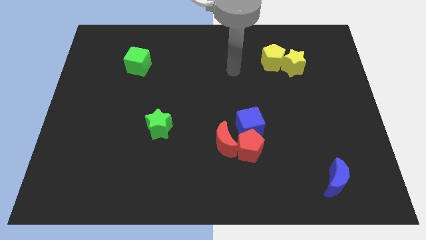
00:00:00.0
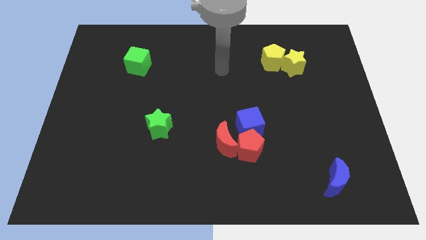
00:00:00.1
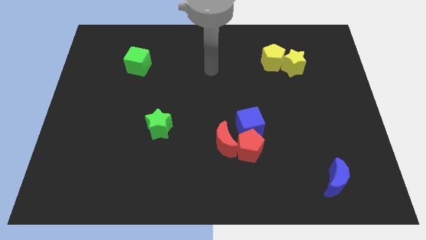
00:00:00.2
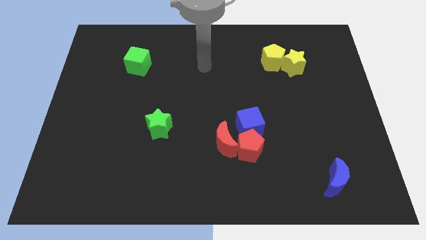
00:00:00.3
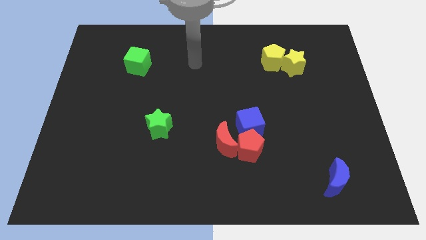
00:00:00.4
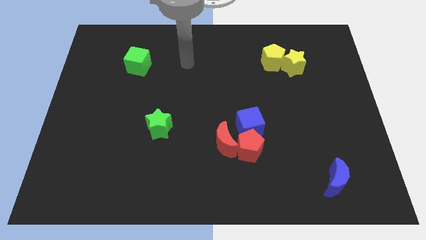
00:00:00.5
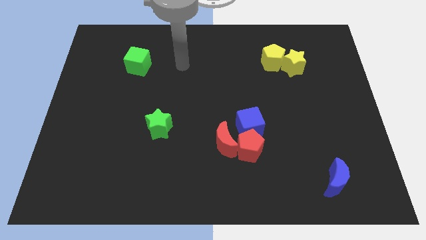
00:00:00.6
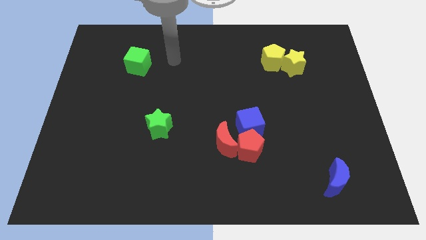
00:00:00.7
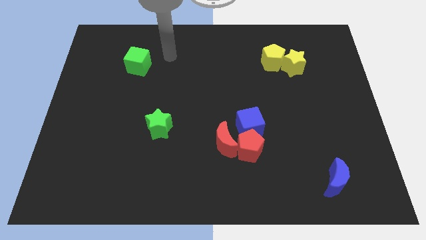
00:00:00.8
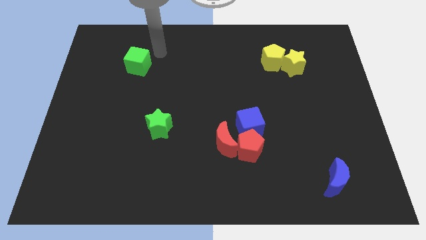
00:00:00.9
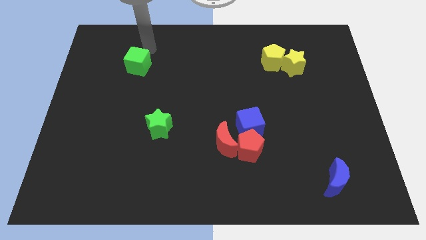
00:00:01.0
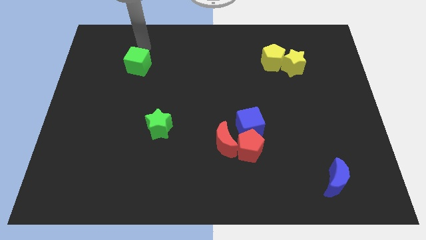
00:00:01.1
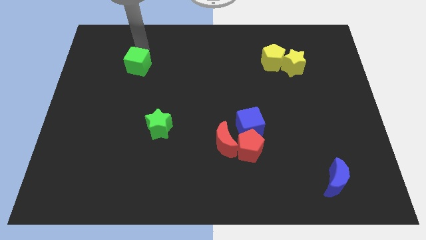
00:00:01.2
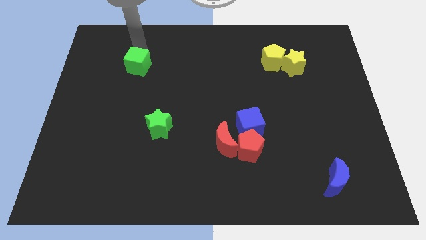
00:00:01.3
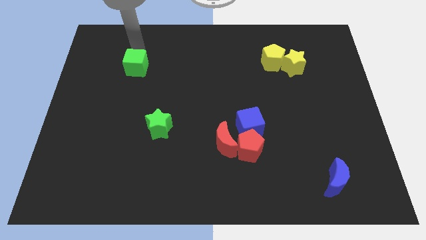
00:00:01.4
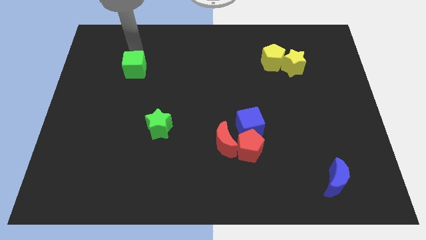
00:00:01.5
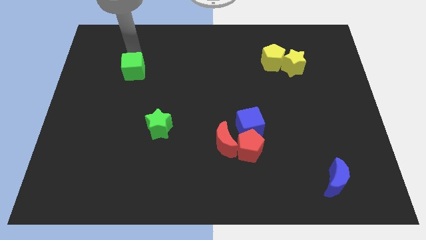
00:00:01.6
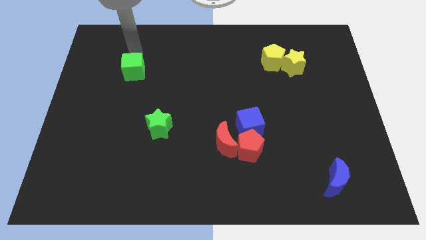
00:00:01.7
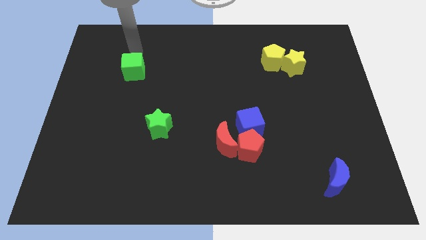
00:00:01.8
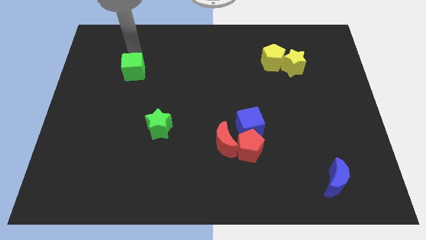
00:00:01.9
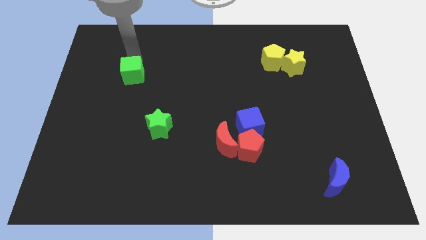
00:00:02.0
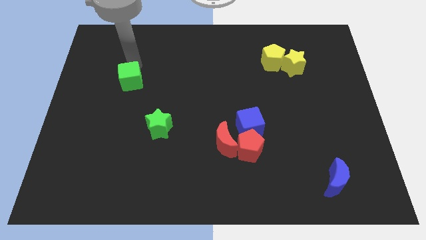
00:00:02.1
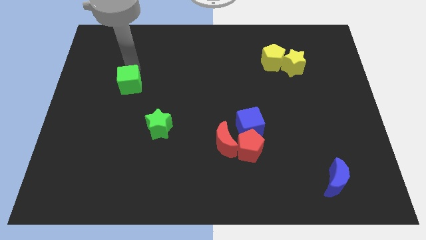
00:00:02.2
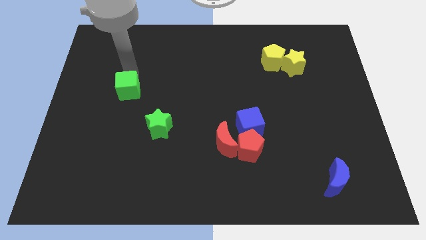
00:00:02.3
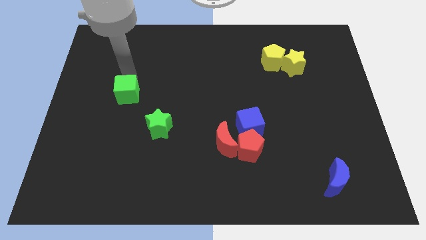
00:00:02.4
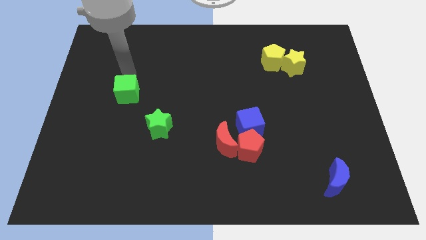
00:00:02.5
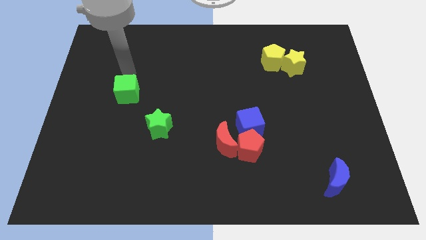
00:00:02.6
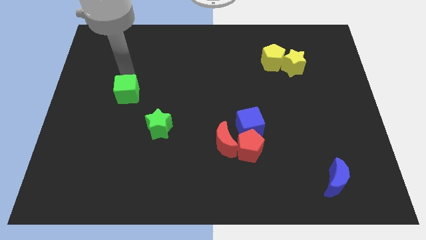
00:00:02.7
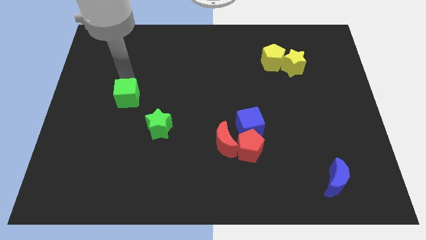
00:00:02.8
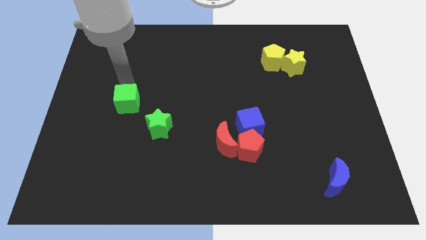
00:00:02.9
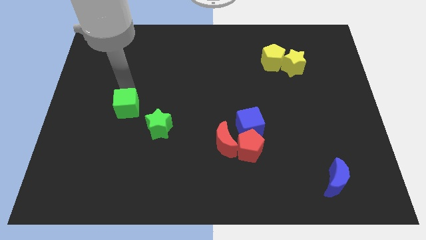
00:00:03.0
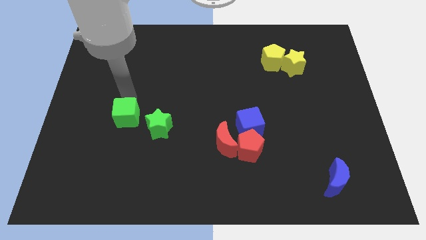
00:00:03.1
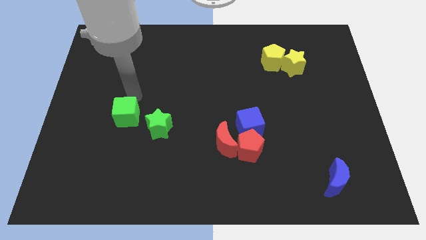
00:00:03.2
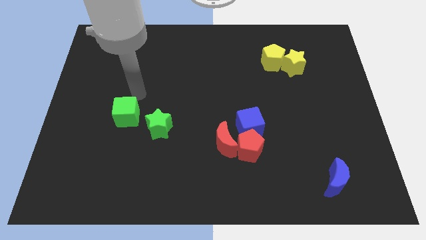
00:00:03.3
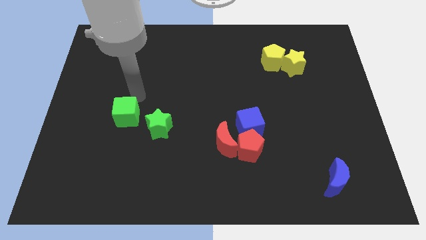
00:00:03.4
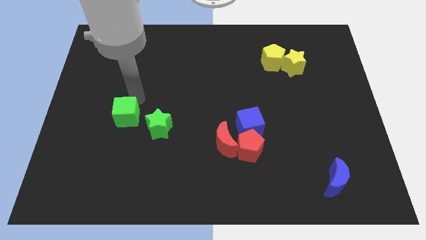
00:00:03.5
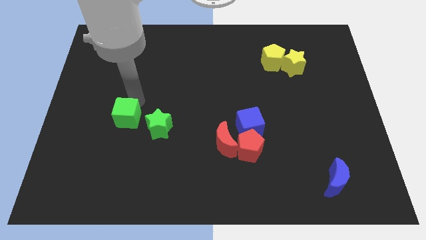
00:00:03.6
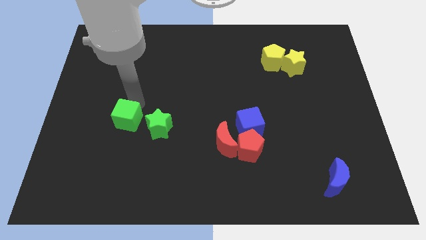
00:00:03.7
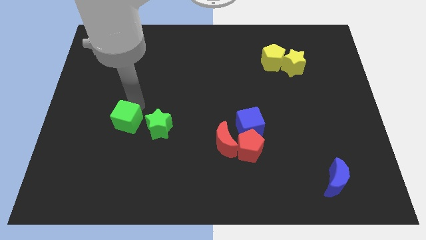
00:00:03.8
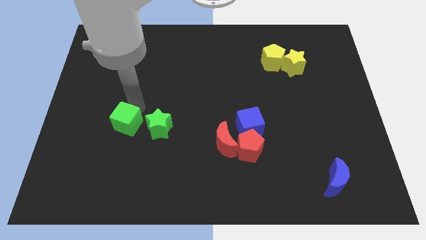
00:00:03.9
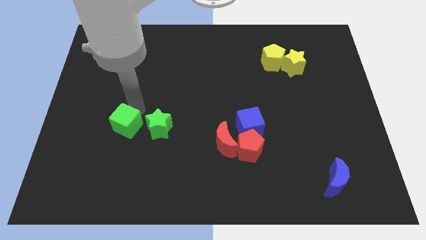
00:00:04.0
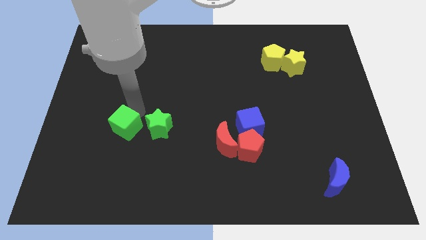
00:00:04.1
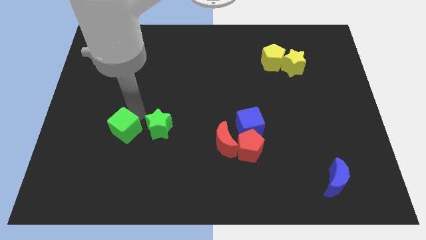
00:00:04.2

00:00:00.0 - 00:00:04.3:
push the green cube down

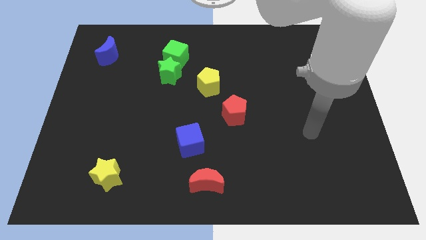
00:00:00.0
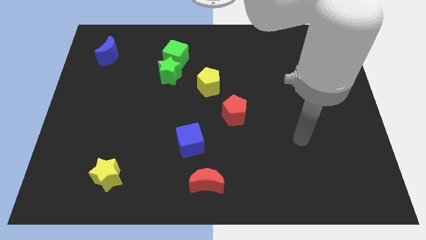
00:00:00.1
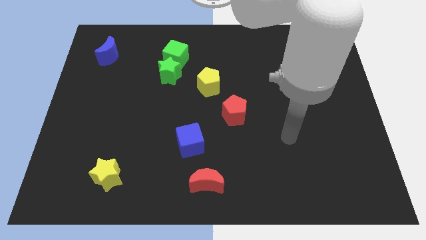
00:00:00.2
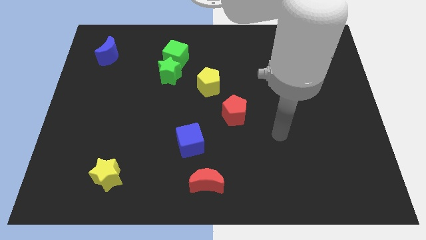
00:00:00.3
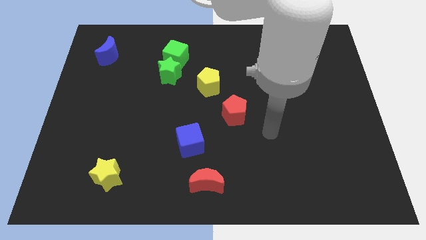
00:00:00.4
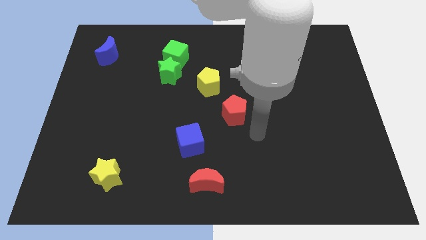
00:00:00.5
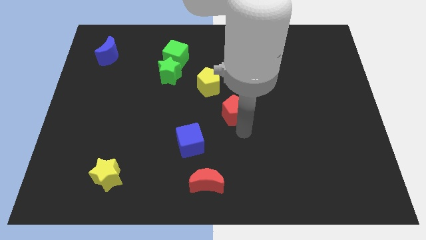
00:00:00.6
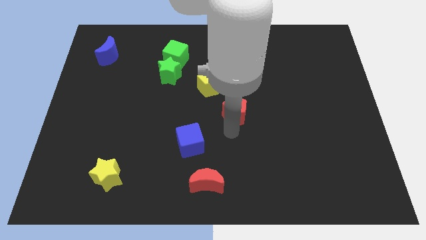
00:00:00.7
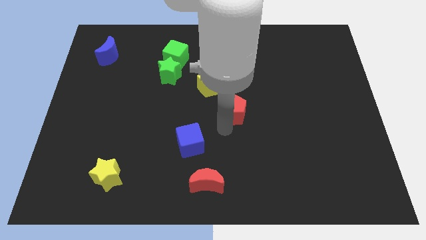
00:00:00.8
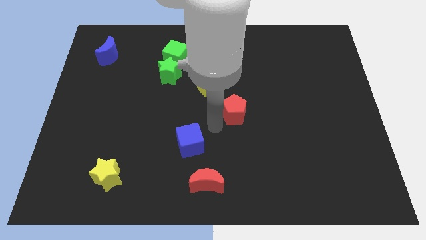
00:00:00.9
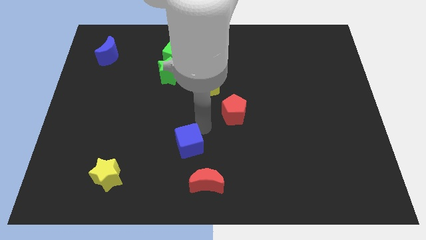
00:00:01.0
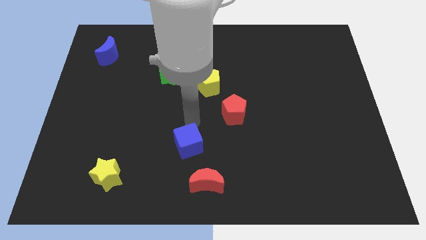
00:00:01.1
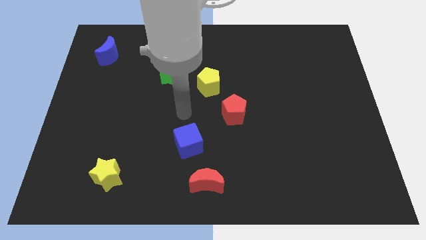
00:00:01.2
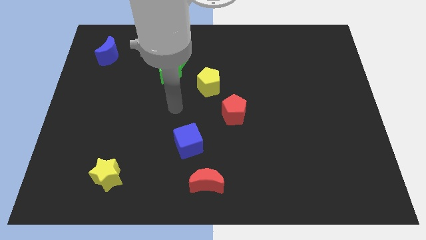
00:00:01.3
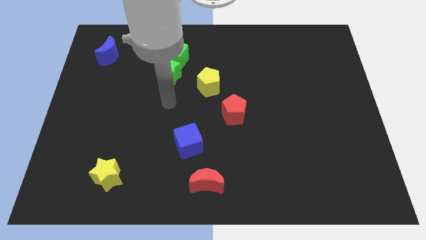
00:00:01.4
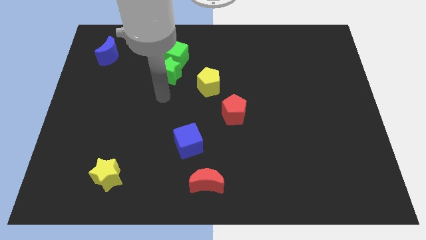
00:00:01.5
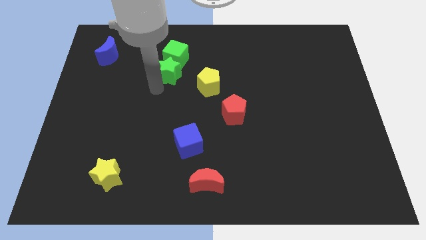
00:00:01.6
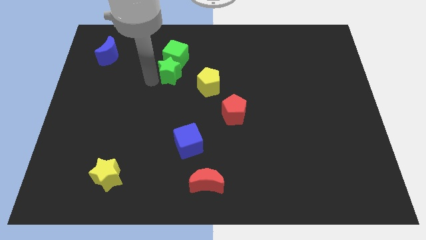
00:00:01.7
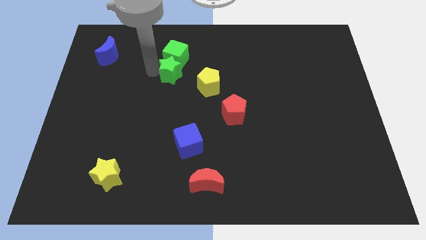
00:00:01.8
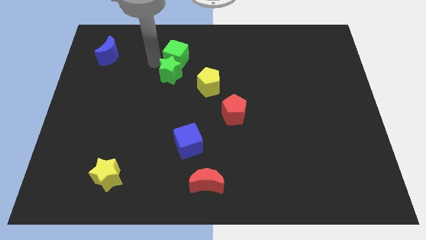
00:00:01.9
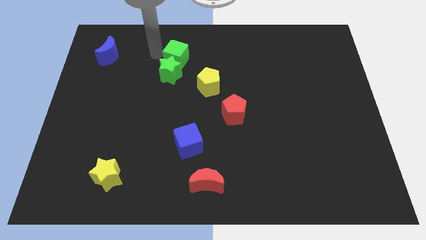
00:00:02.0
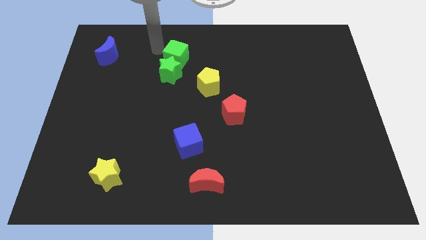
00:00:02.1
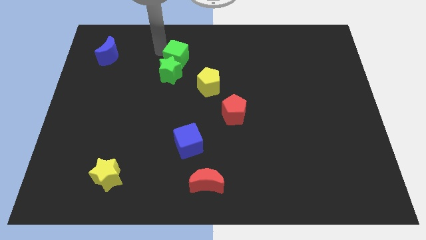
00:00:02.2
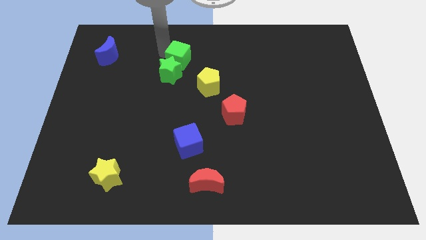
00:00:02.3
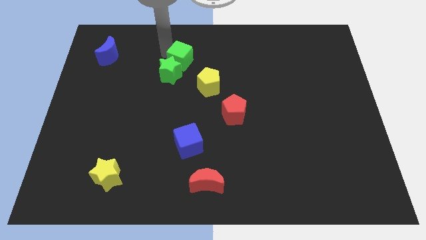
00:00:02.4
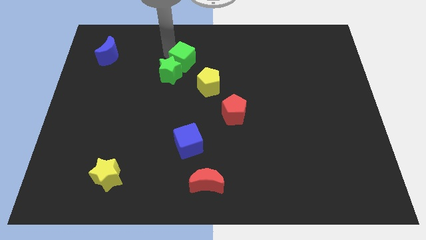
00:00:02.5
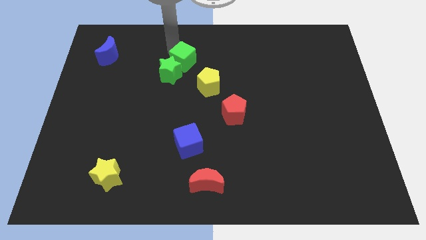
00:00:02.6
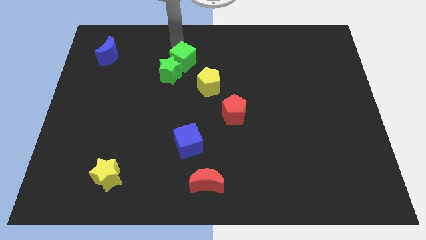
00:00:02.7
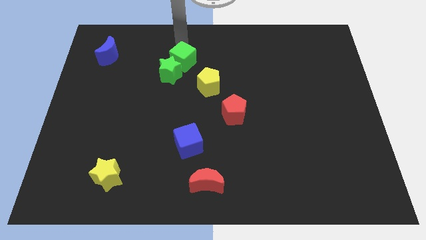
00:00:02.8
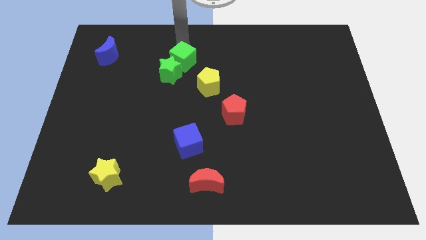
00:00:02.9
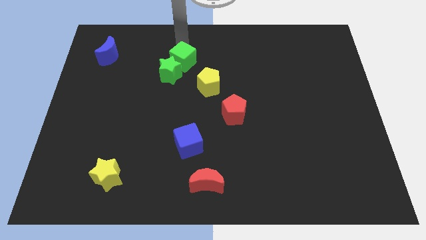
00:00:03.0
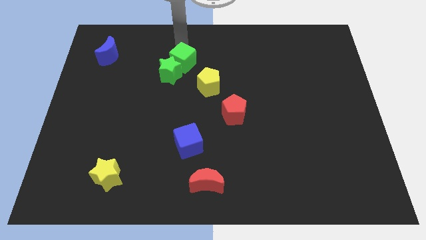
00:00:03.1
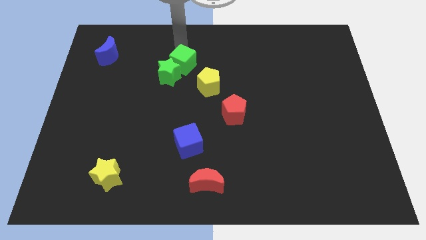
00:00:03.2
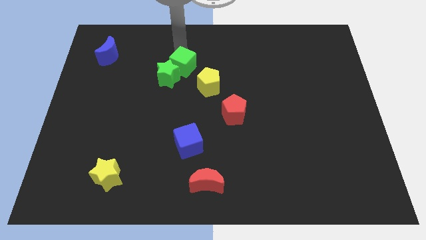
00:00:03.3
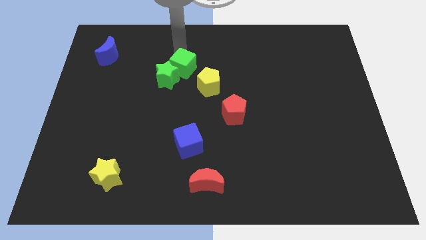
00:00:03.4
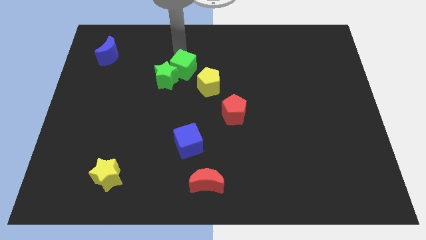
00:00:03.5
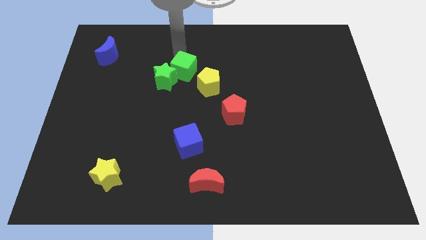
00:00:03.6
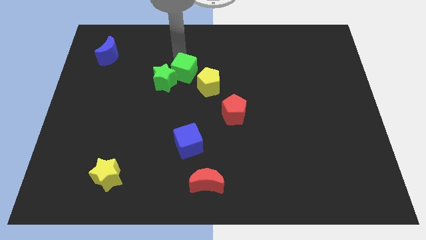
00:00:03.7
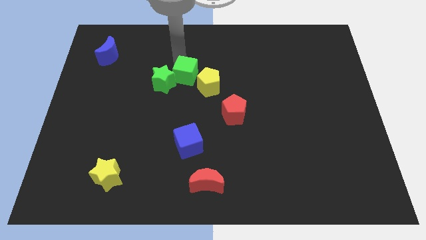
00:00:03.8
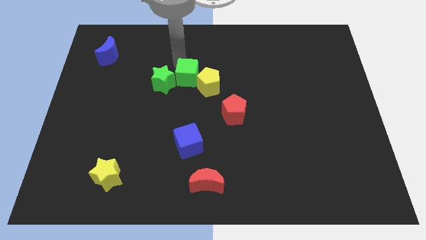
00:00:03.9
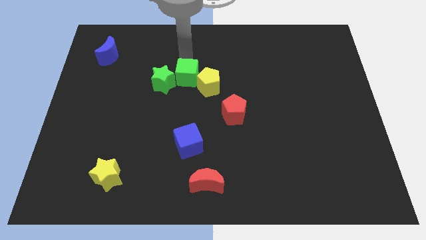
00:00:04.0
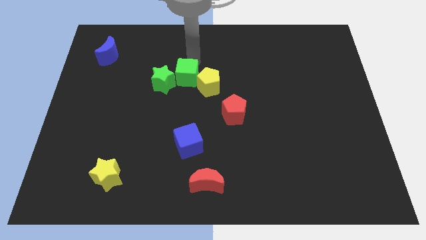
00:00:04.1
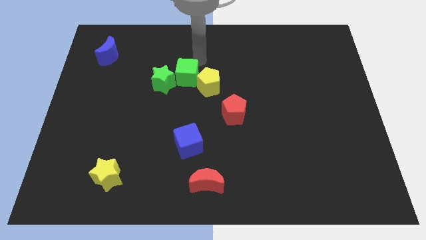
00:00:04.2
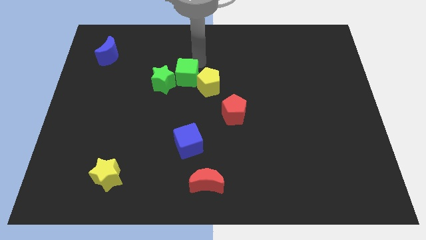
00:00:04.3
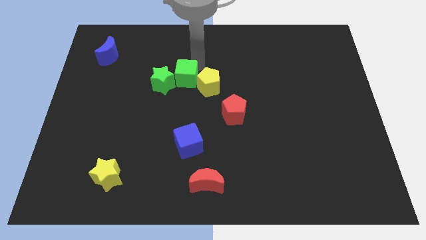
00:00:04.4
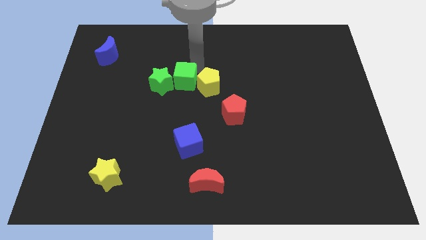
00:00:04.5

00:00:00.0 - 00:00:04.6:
slide the green cube slightly downwards
